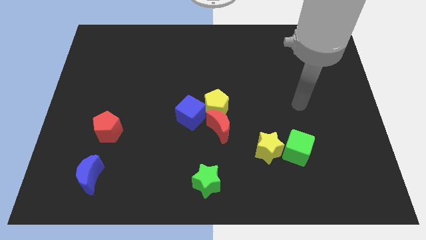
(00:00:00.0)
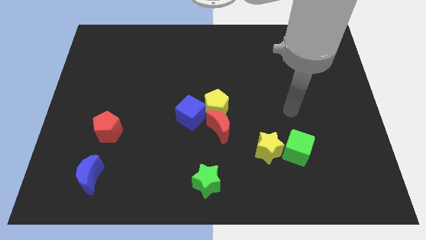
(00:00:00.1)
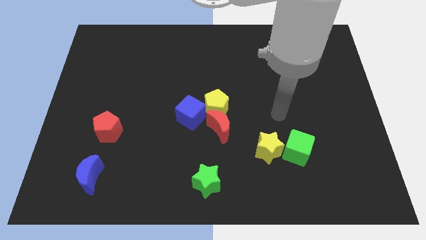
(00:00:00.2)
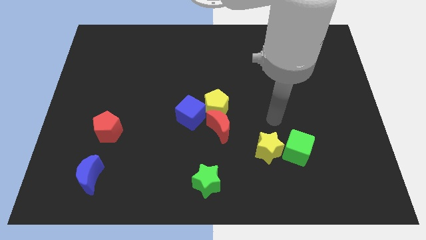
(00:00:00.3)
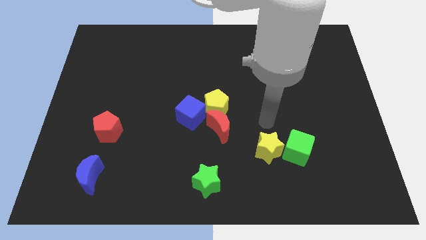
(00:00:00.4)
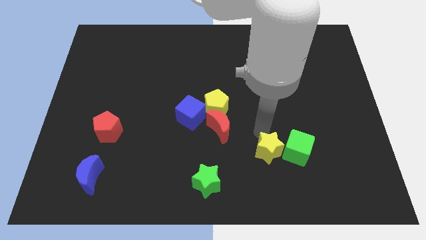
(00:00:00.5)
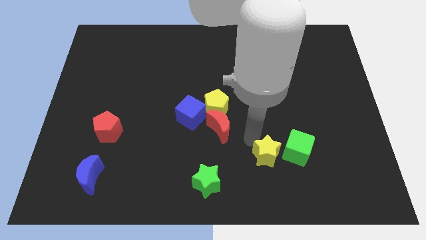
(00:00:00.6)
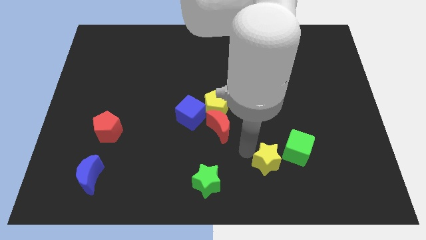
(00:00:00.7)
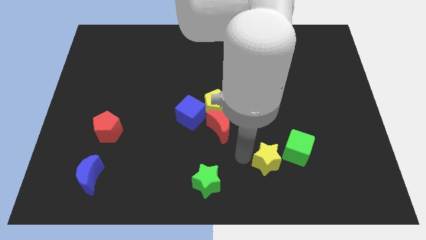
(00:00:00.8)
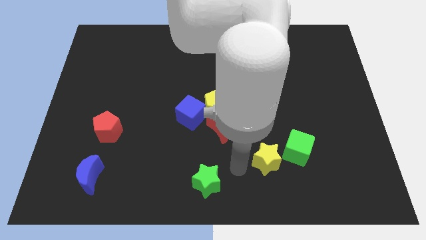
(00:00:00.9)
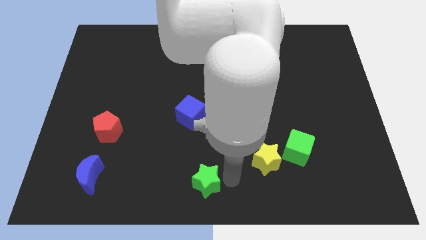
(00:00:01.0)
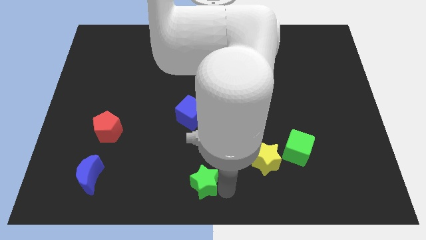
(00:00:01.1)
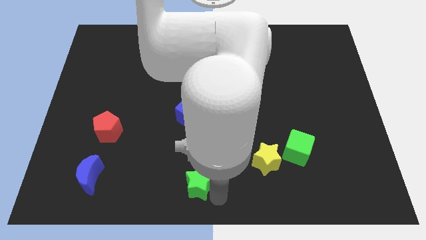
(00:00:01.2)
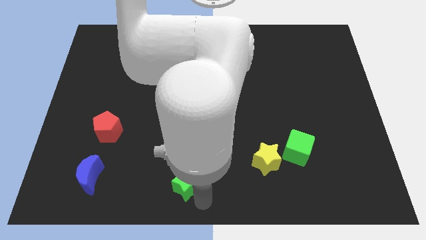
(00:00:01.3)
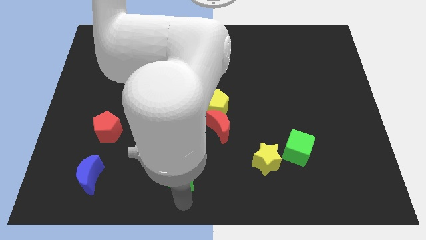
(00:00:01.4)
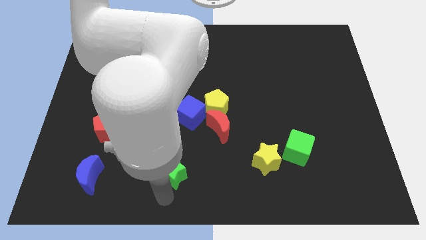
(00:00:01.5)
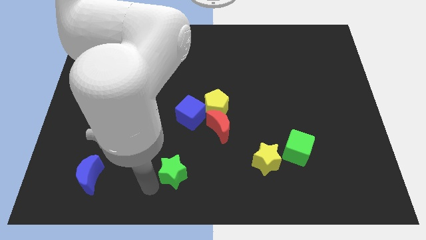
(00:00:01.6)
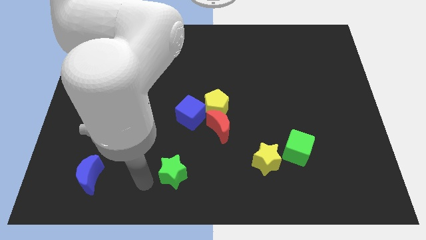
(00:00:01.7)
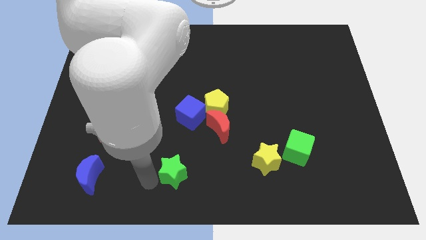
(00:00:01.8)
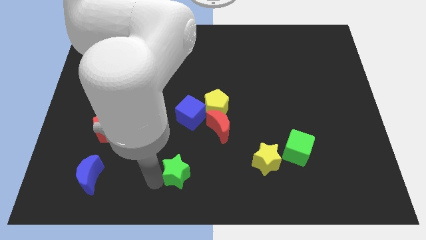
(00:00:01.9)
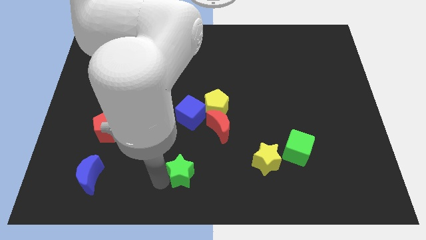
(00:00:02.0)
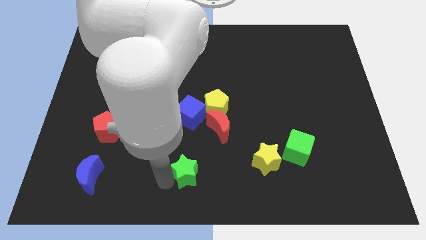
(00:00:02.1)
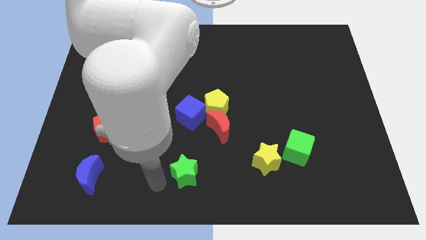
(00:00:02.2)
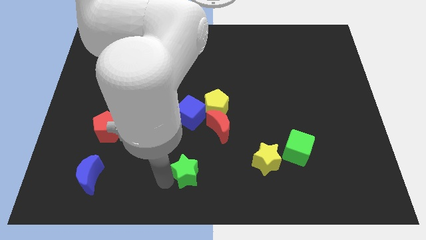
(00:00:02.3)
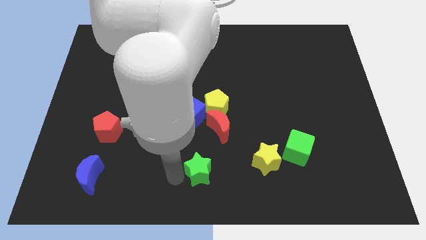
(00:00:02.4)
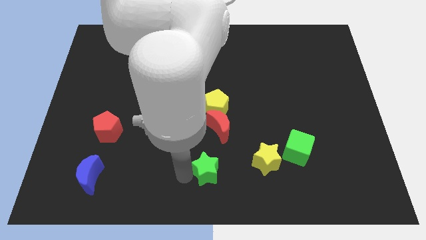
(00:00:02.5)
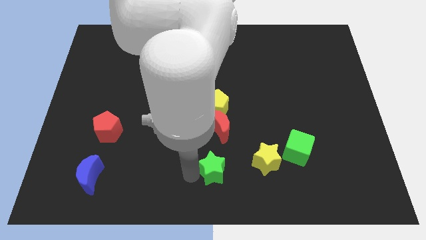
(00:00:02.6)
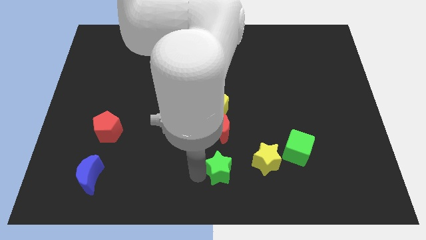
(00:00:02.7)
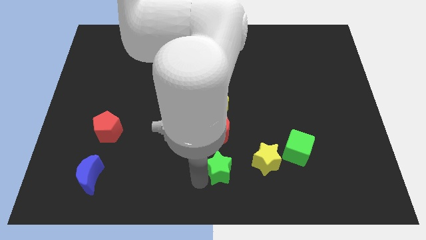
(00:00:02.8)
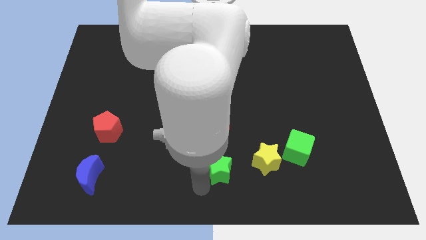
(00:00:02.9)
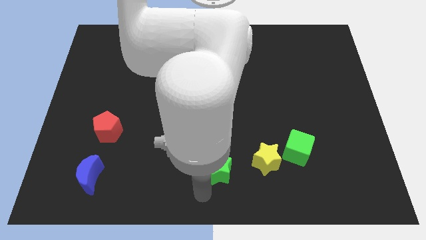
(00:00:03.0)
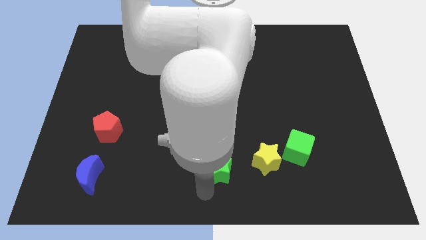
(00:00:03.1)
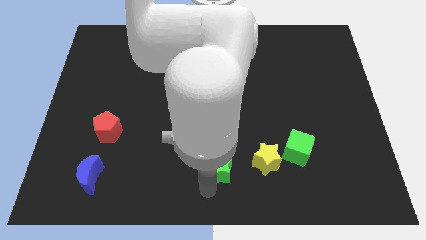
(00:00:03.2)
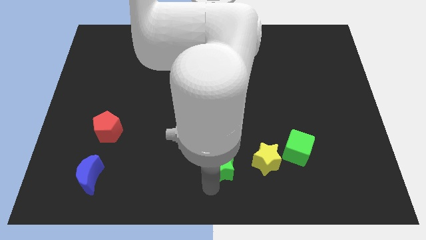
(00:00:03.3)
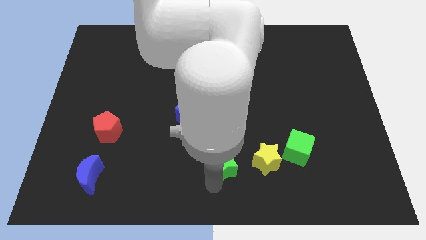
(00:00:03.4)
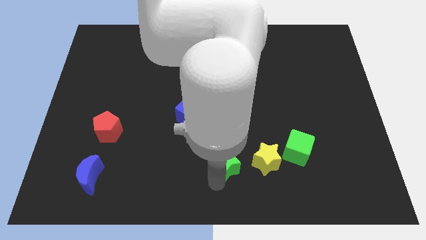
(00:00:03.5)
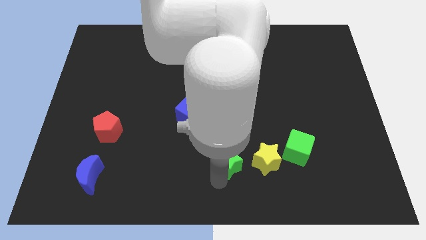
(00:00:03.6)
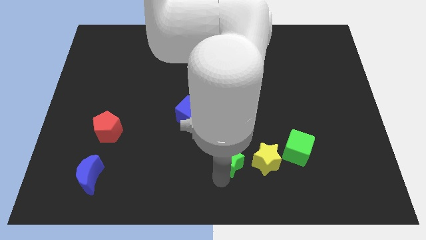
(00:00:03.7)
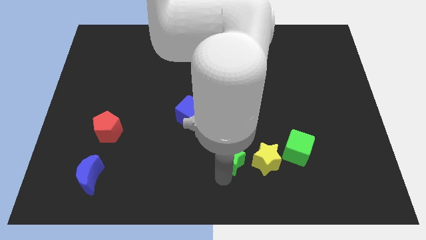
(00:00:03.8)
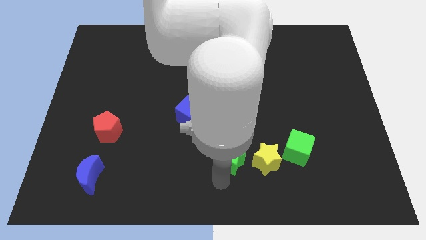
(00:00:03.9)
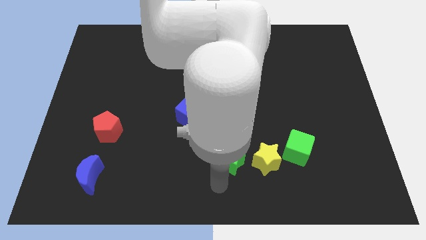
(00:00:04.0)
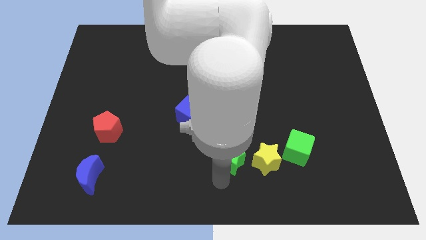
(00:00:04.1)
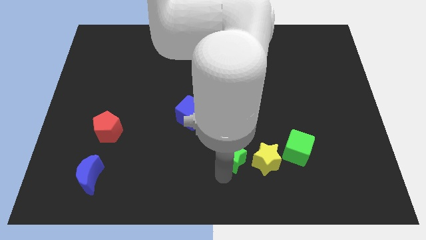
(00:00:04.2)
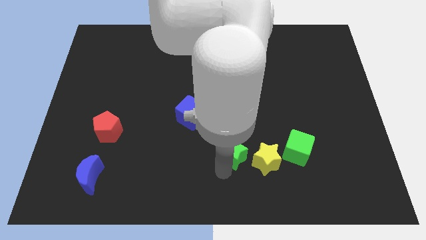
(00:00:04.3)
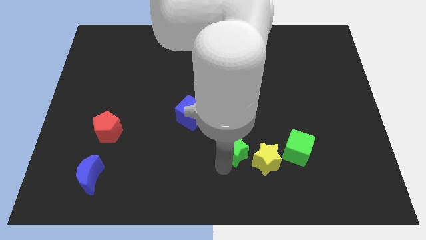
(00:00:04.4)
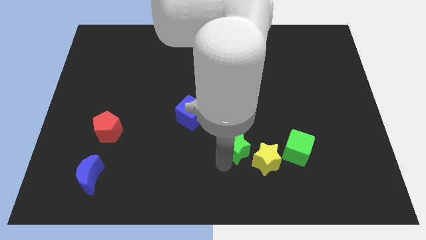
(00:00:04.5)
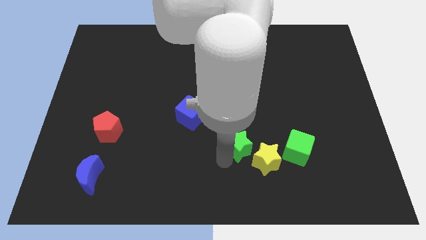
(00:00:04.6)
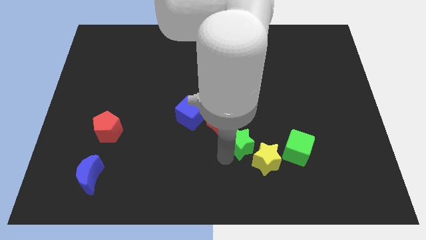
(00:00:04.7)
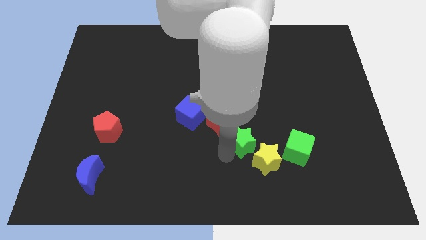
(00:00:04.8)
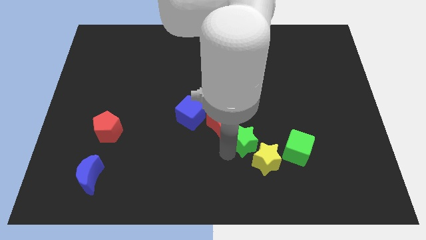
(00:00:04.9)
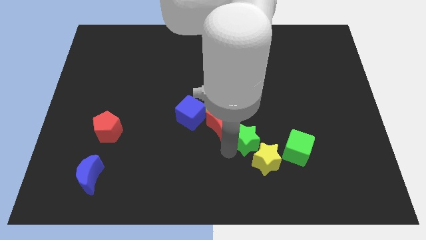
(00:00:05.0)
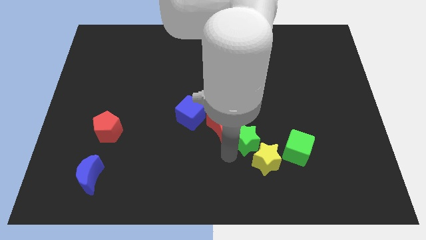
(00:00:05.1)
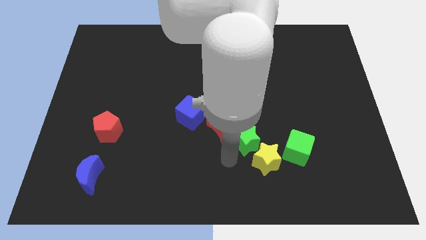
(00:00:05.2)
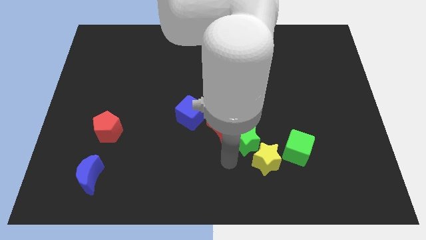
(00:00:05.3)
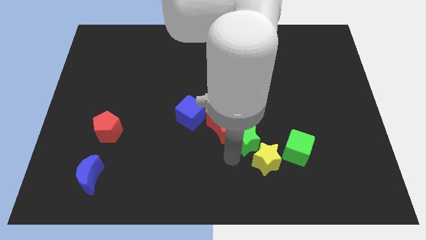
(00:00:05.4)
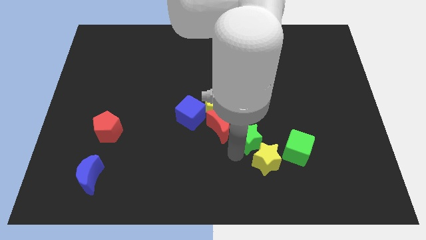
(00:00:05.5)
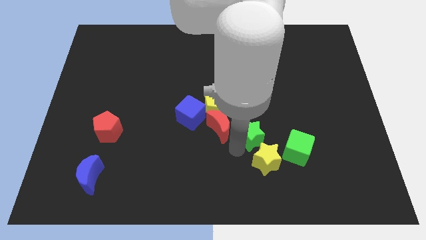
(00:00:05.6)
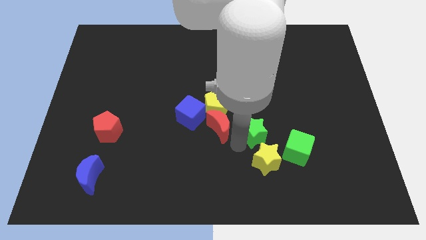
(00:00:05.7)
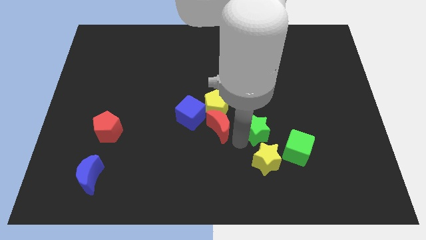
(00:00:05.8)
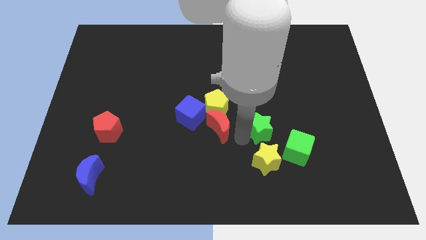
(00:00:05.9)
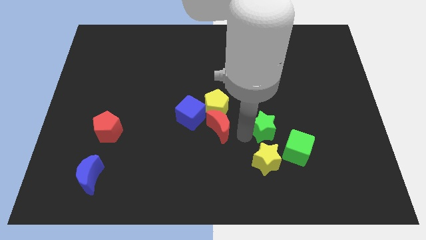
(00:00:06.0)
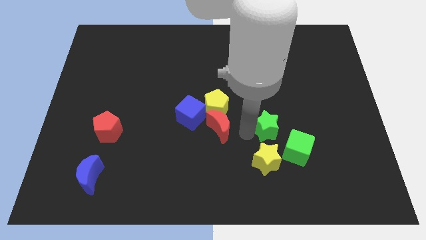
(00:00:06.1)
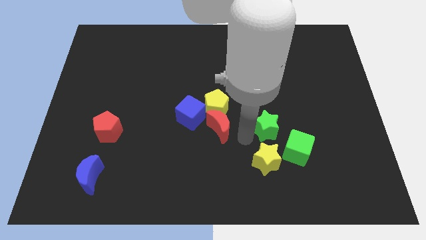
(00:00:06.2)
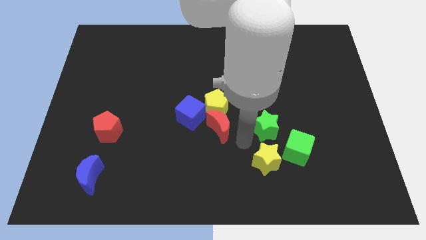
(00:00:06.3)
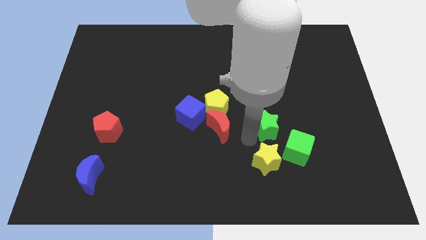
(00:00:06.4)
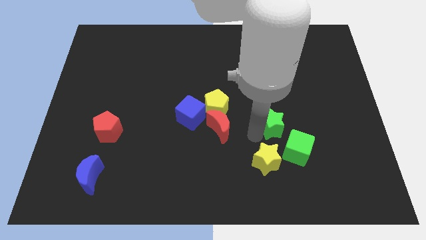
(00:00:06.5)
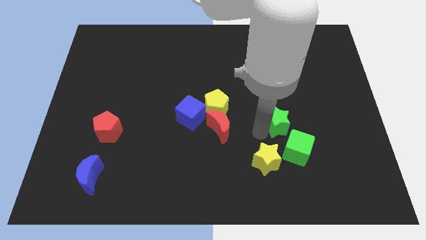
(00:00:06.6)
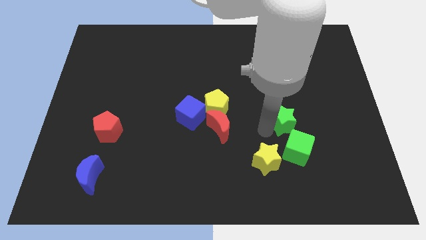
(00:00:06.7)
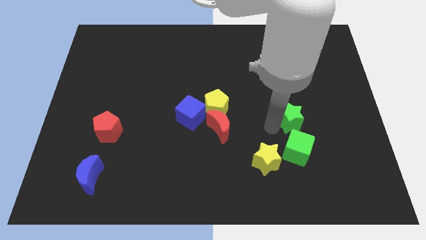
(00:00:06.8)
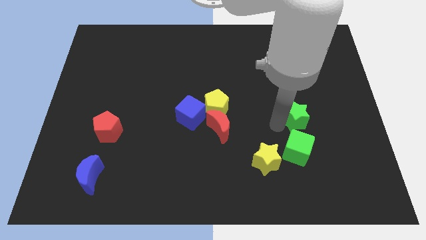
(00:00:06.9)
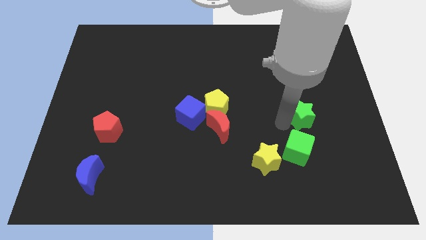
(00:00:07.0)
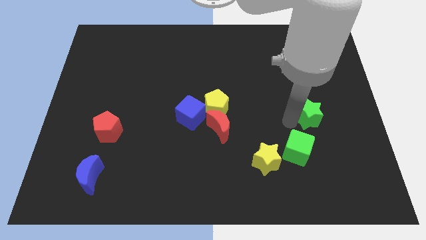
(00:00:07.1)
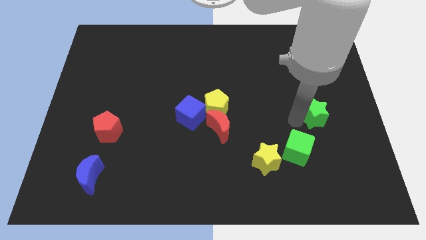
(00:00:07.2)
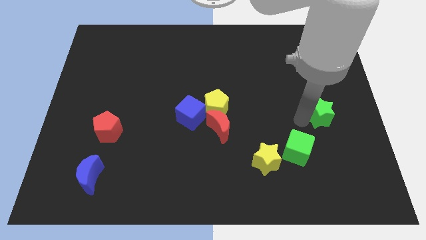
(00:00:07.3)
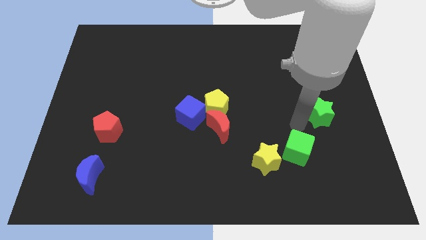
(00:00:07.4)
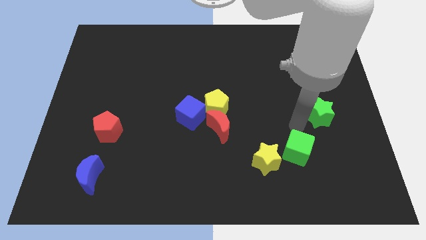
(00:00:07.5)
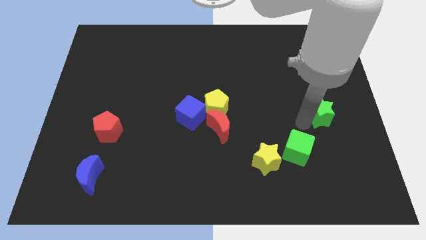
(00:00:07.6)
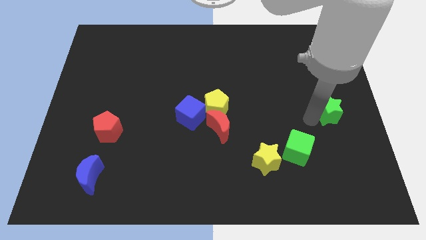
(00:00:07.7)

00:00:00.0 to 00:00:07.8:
push the green star to the right side of the board
